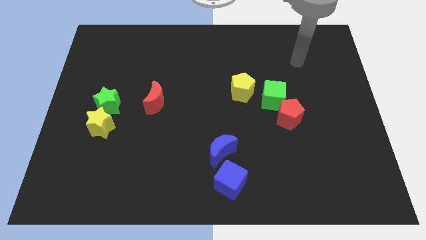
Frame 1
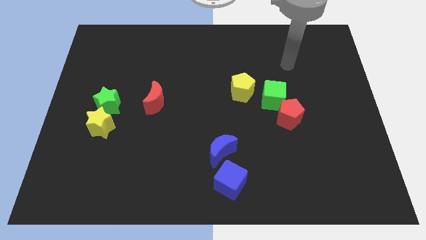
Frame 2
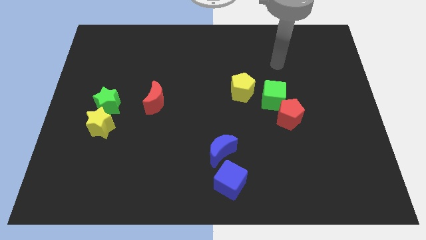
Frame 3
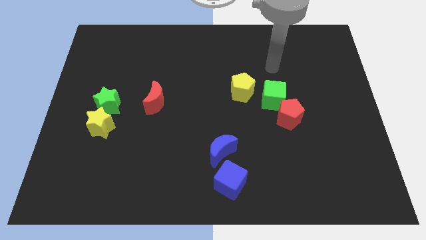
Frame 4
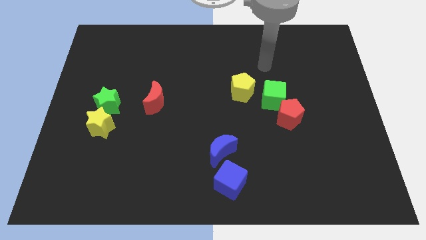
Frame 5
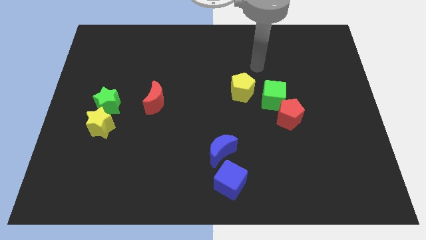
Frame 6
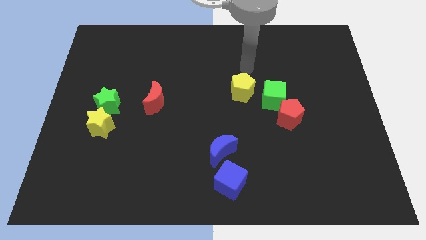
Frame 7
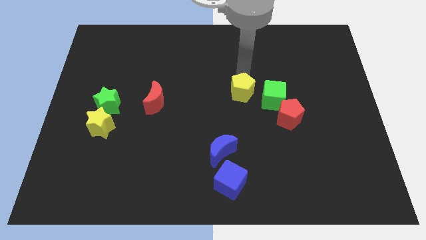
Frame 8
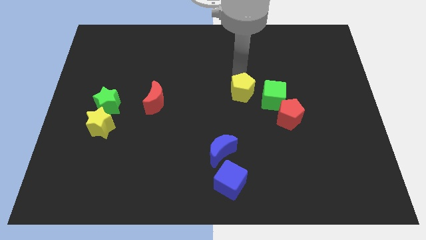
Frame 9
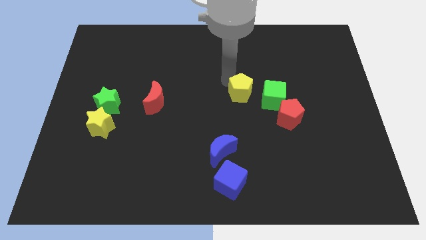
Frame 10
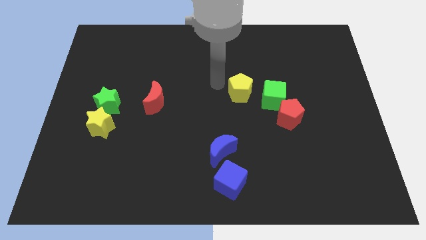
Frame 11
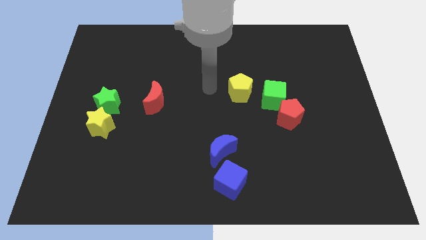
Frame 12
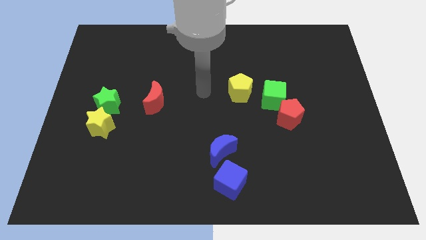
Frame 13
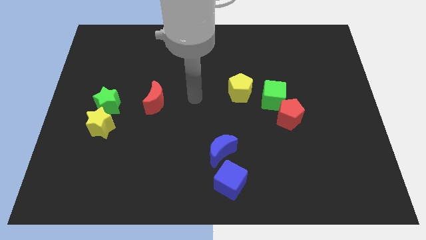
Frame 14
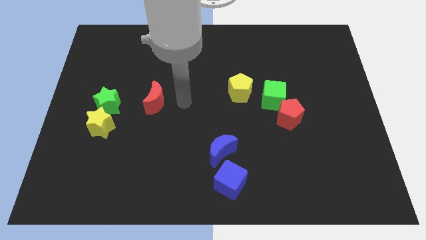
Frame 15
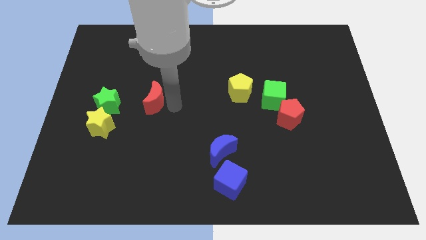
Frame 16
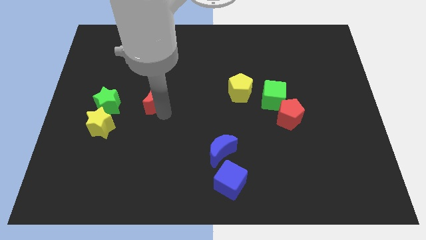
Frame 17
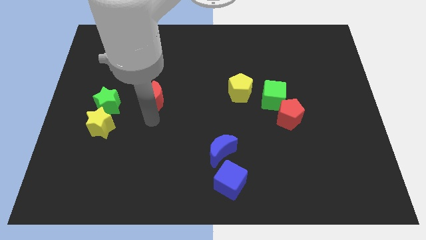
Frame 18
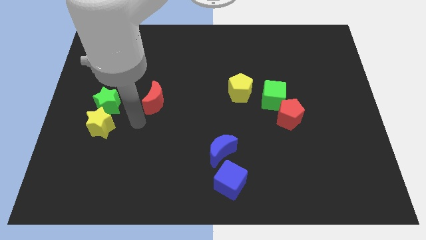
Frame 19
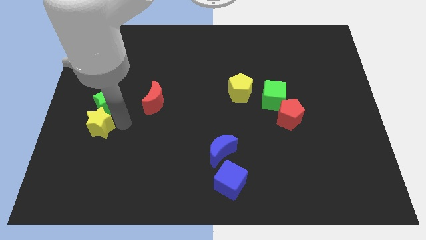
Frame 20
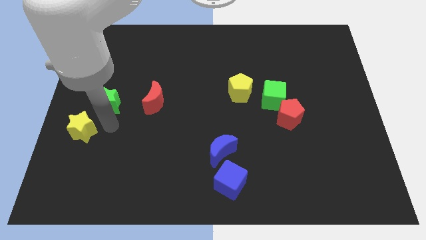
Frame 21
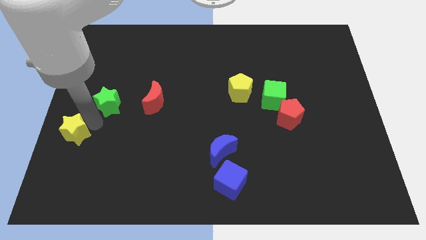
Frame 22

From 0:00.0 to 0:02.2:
separate the green star from the yellow star

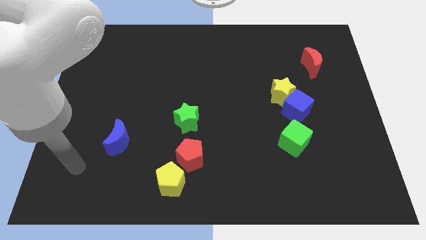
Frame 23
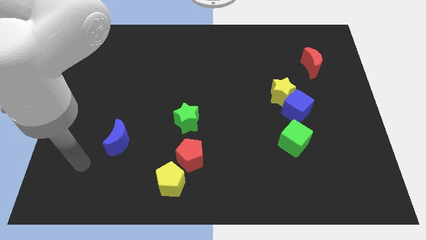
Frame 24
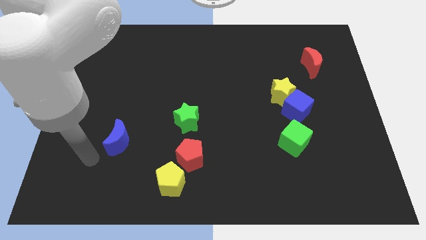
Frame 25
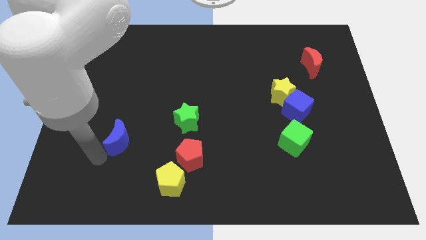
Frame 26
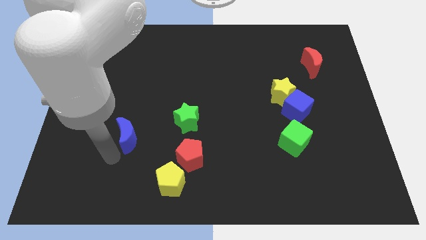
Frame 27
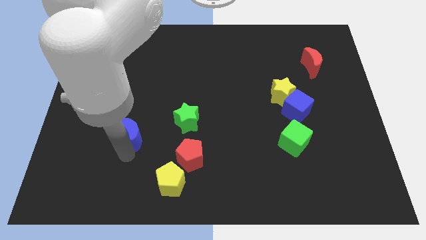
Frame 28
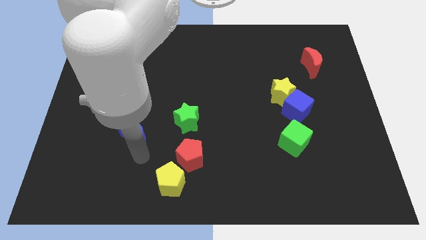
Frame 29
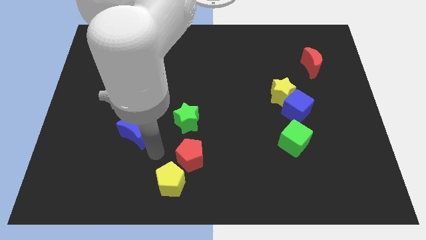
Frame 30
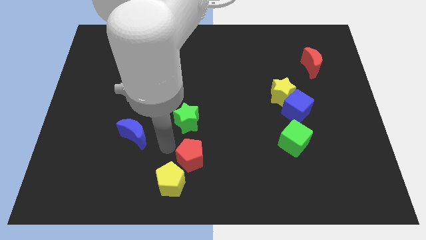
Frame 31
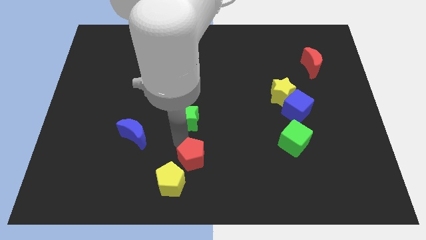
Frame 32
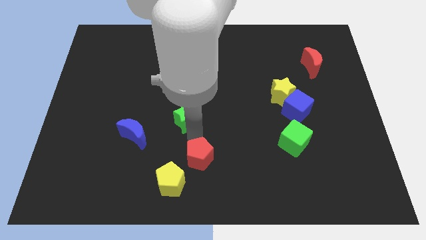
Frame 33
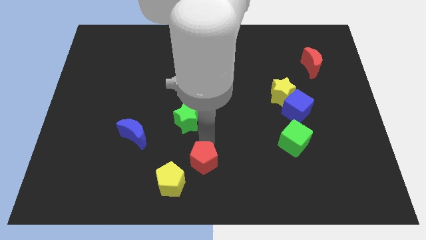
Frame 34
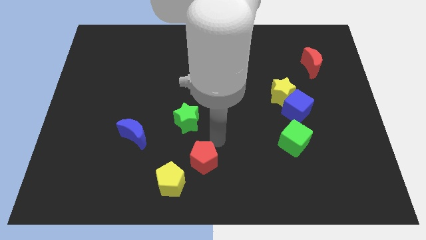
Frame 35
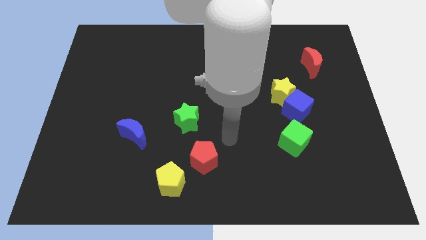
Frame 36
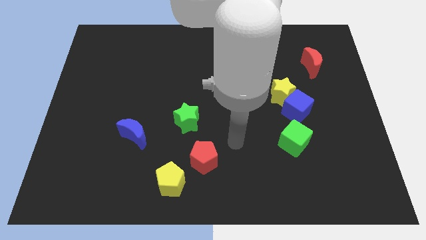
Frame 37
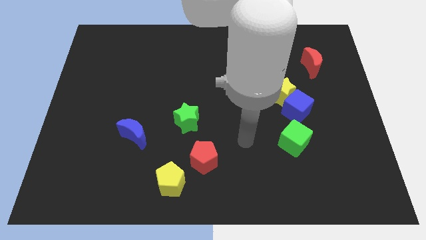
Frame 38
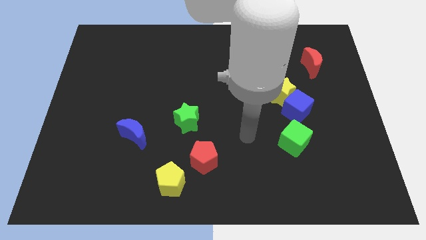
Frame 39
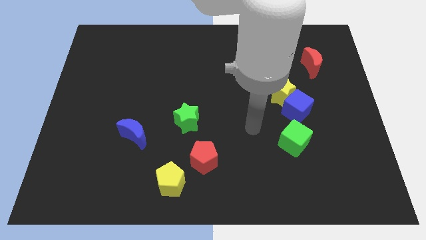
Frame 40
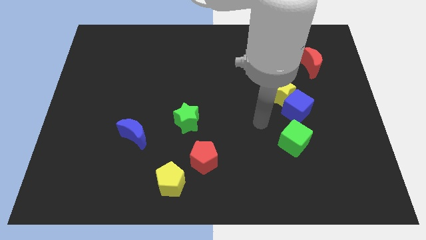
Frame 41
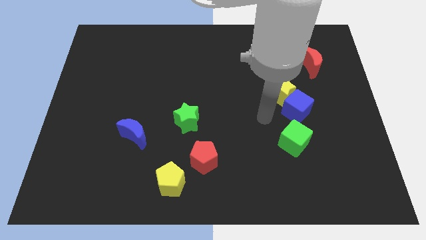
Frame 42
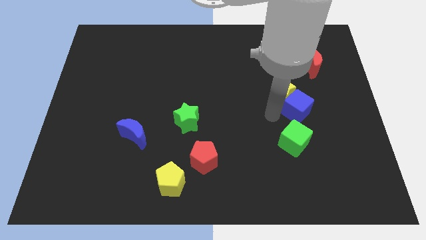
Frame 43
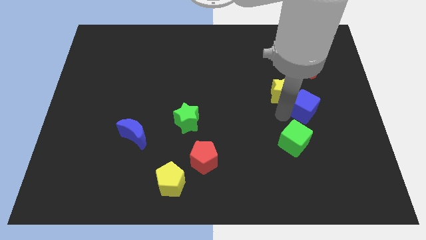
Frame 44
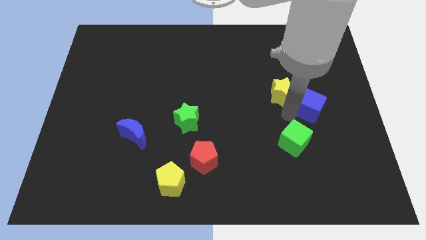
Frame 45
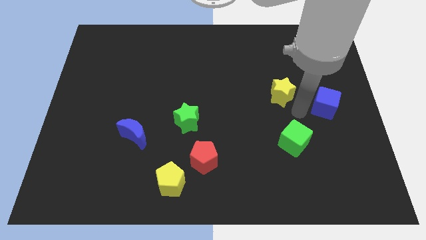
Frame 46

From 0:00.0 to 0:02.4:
pull the yellow star apart from the blue cube

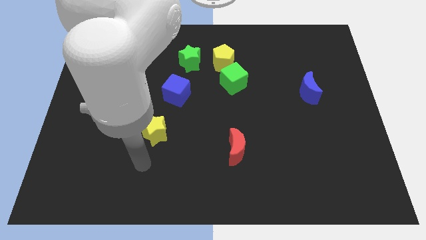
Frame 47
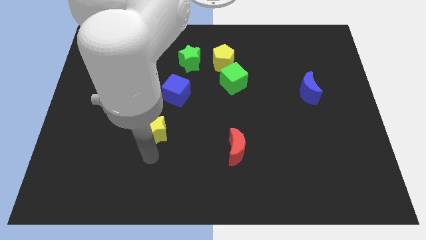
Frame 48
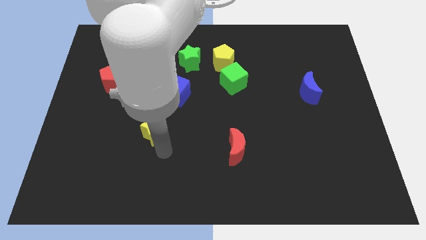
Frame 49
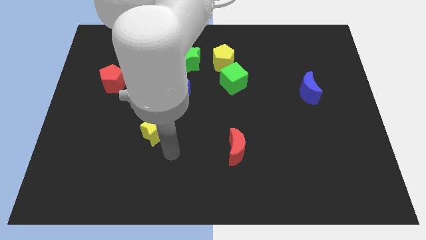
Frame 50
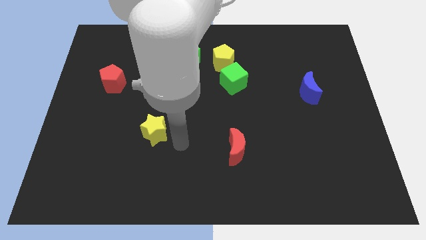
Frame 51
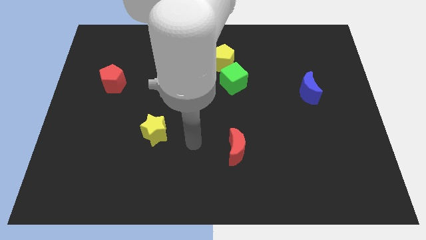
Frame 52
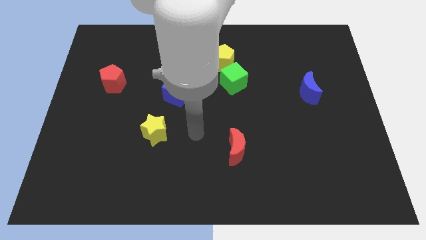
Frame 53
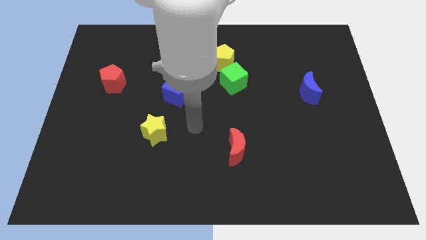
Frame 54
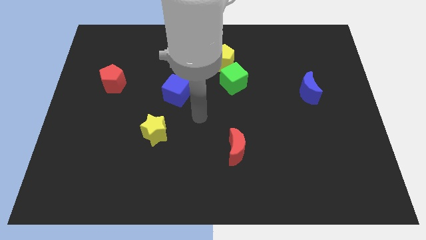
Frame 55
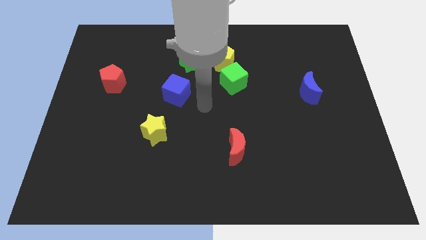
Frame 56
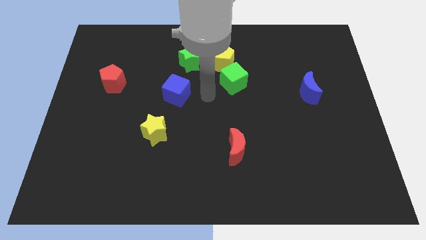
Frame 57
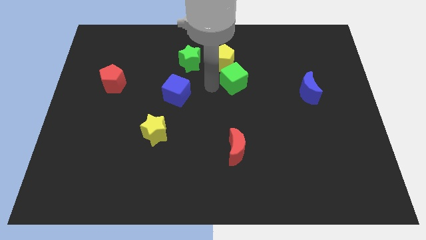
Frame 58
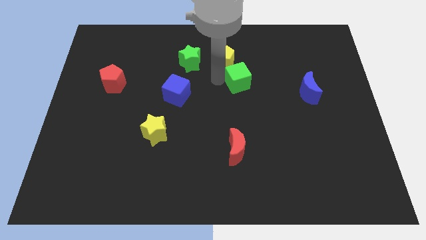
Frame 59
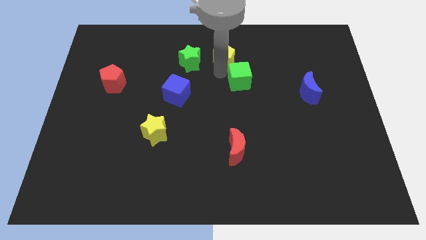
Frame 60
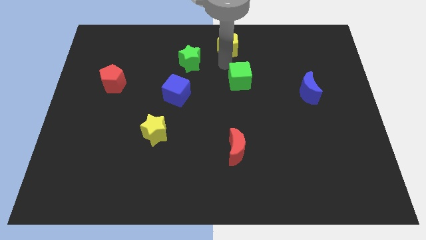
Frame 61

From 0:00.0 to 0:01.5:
move the green cube away from the yellow pentagon

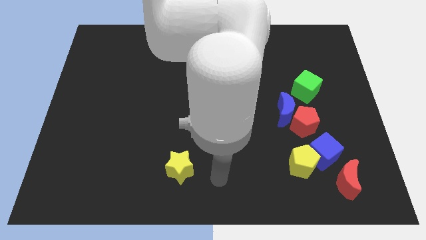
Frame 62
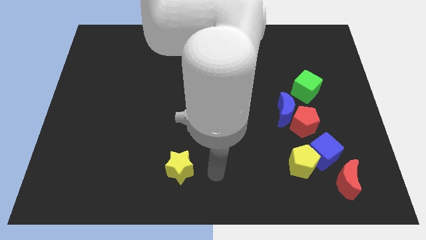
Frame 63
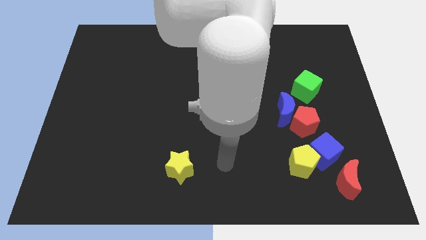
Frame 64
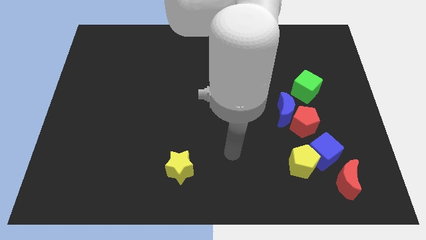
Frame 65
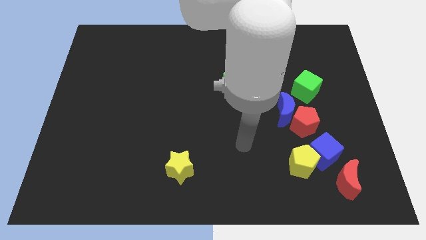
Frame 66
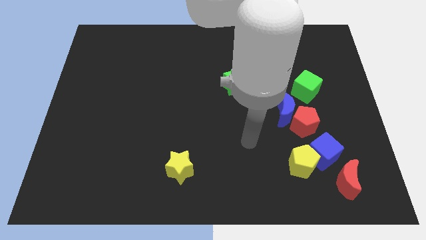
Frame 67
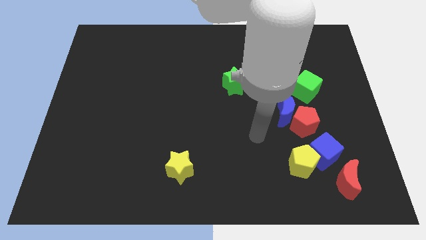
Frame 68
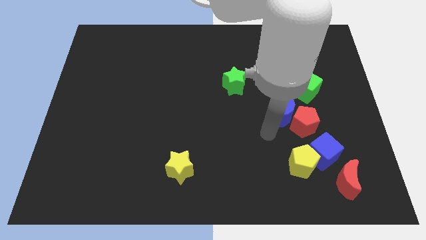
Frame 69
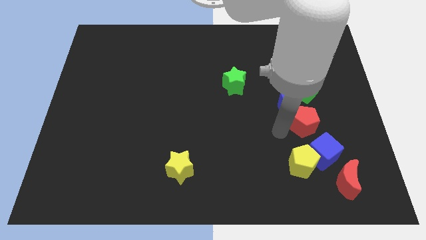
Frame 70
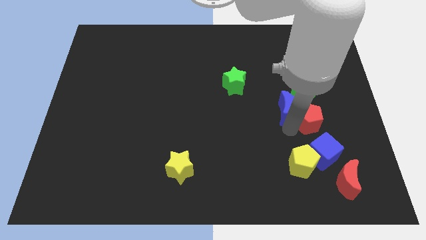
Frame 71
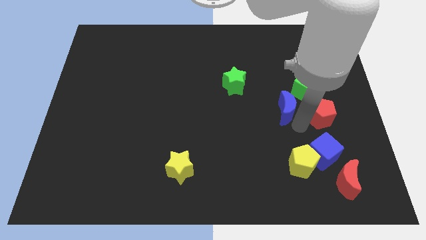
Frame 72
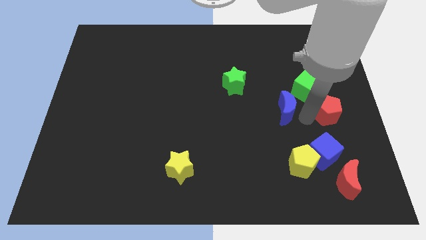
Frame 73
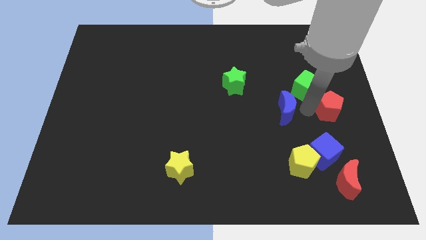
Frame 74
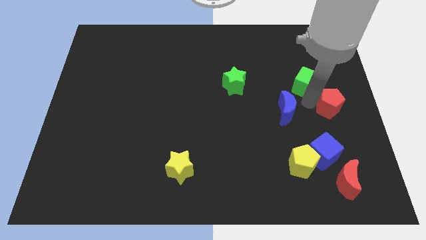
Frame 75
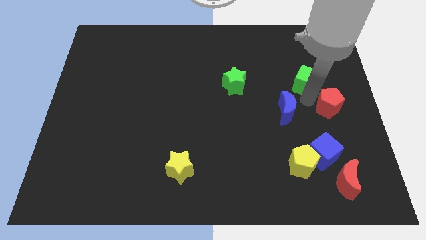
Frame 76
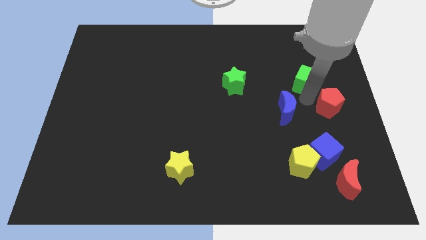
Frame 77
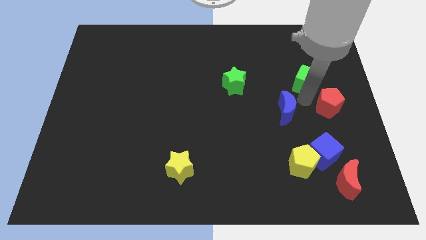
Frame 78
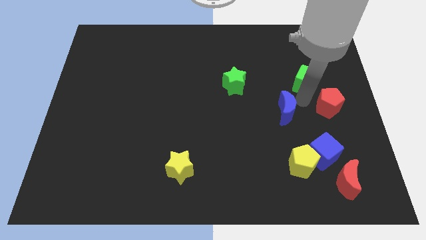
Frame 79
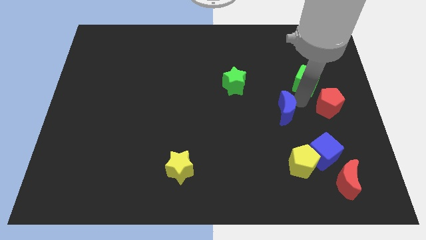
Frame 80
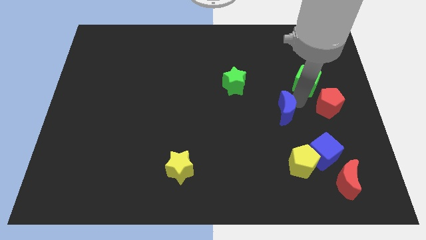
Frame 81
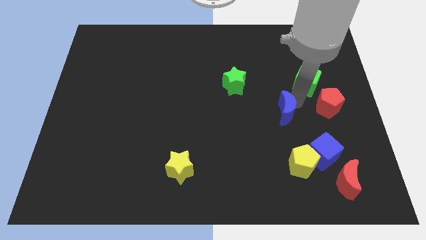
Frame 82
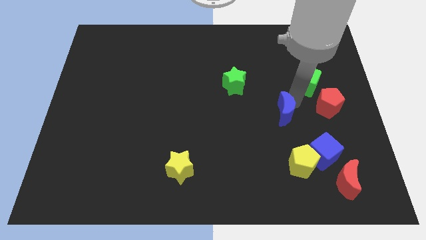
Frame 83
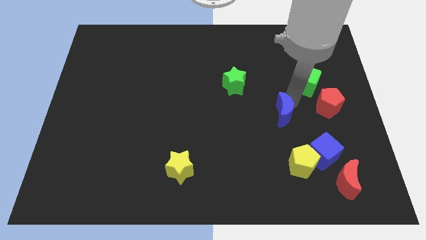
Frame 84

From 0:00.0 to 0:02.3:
pull the blue moon apart from the red pentagon and green cube

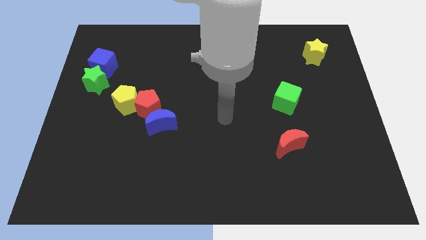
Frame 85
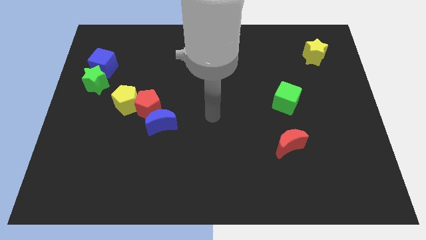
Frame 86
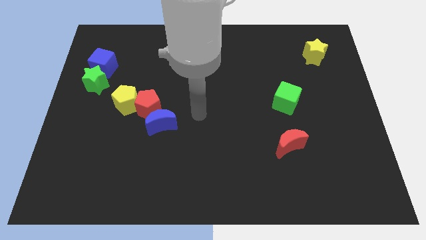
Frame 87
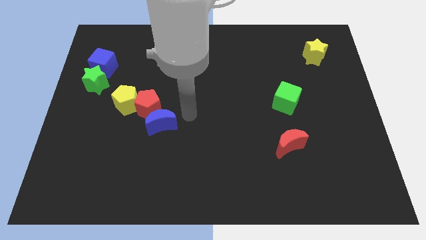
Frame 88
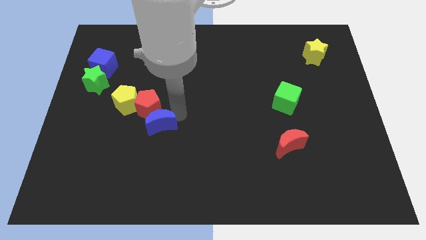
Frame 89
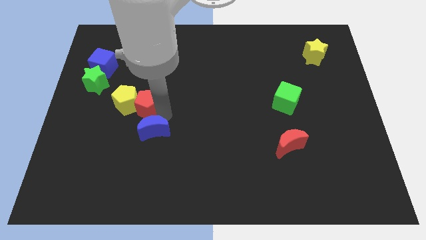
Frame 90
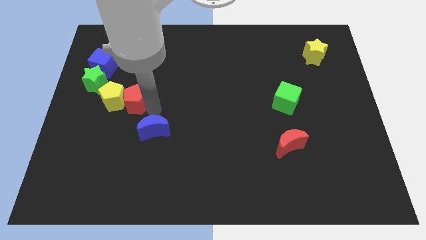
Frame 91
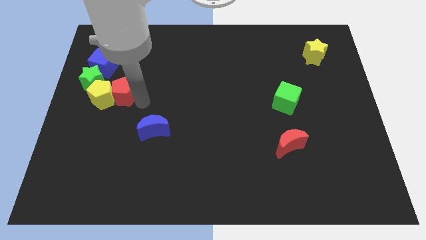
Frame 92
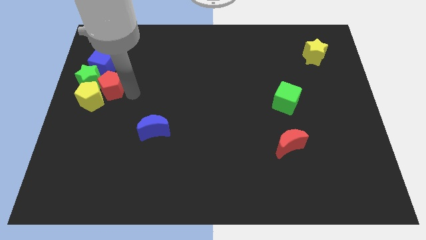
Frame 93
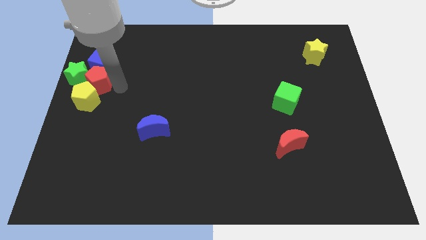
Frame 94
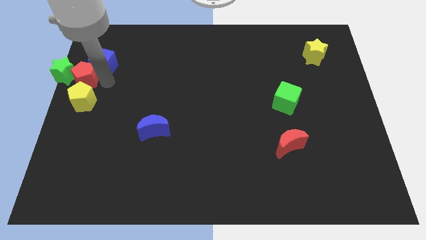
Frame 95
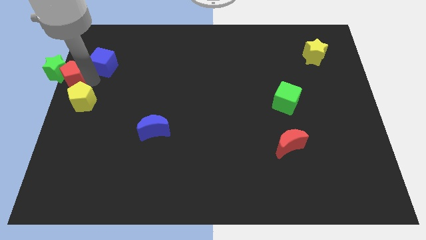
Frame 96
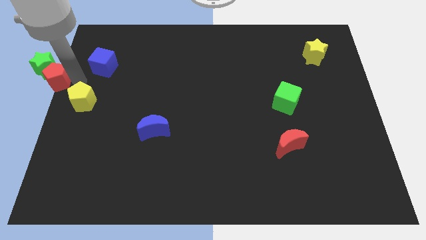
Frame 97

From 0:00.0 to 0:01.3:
separate the yellow pentagon from the red pentagon
